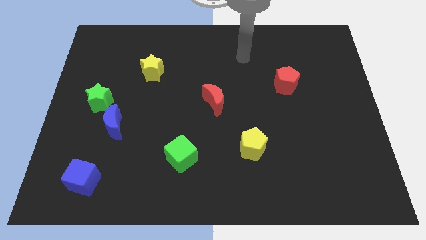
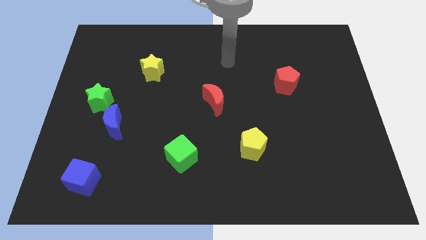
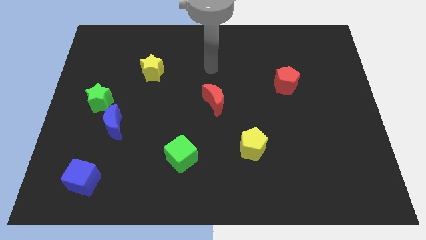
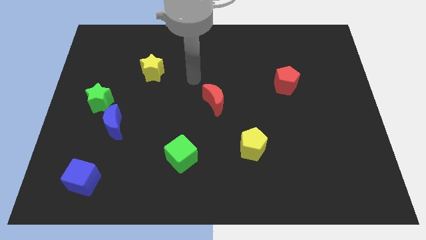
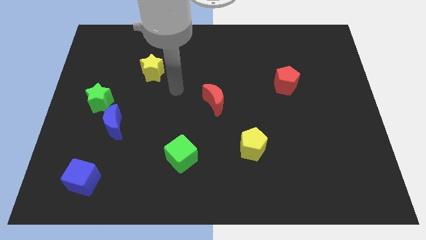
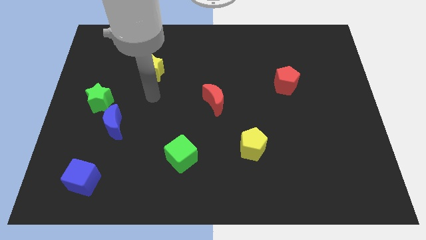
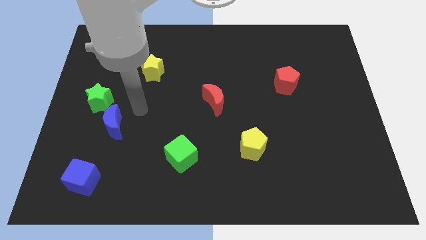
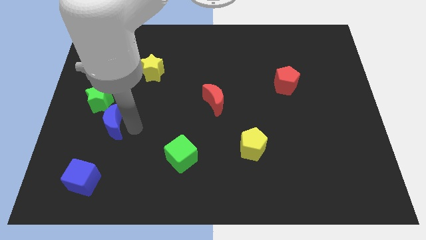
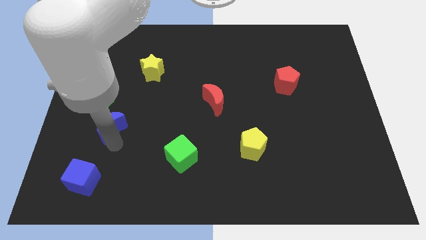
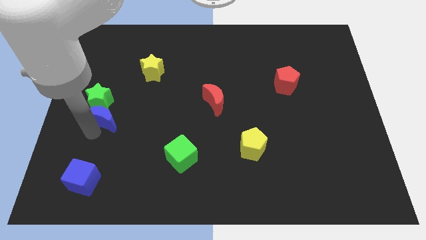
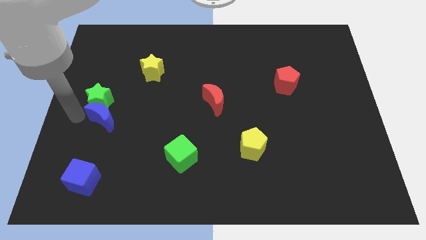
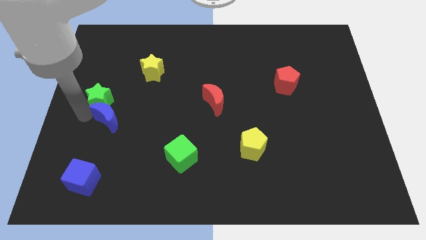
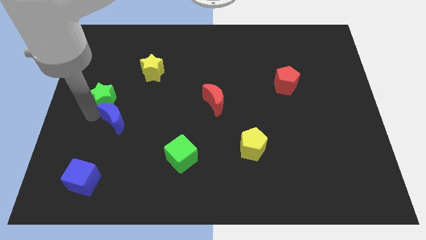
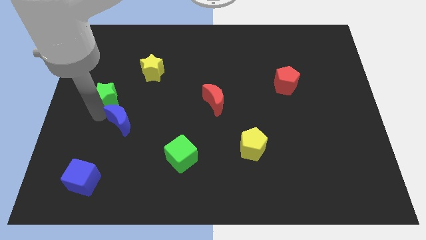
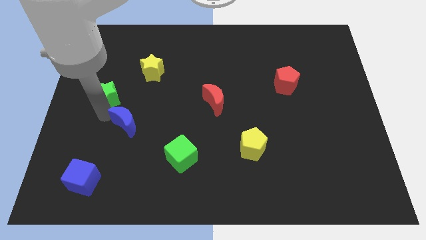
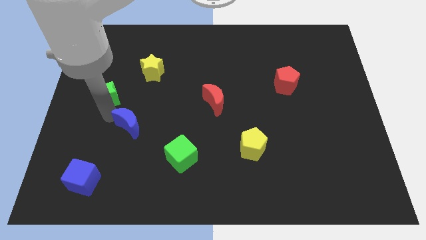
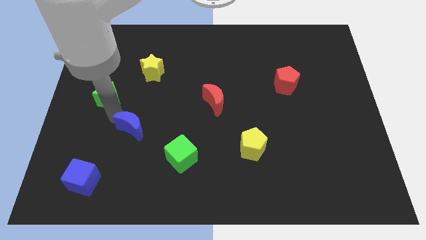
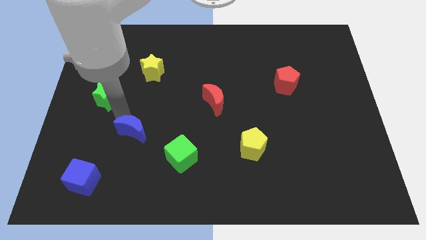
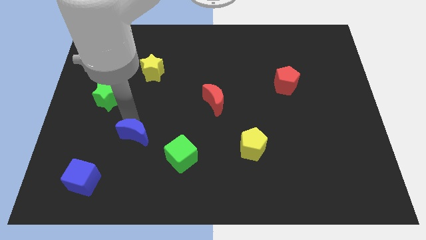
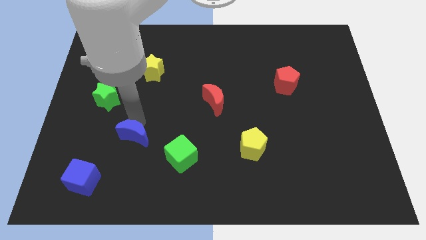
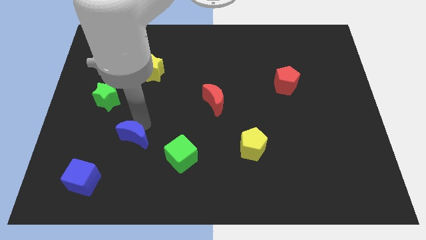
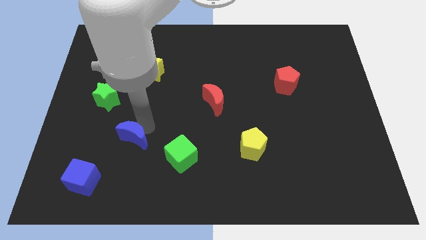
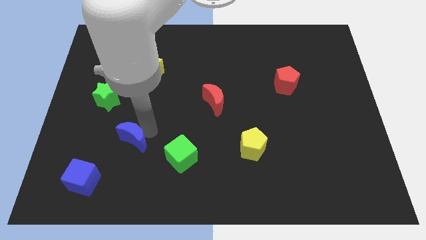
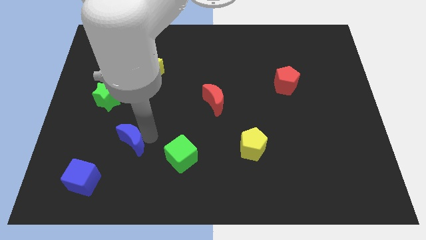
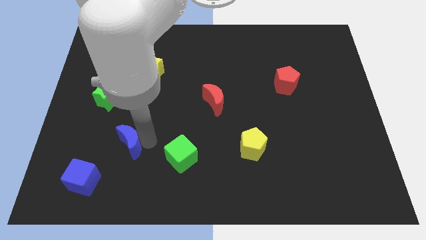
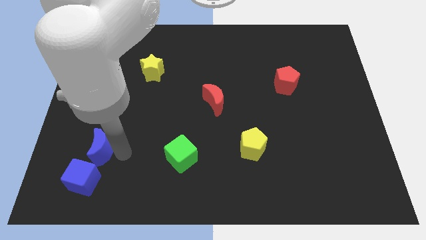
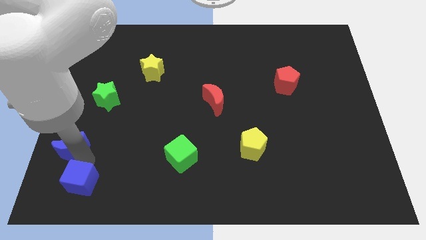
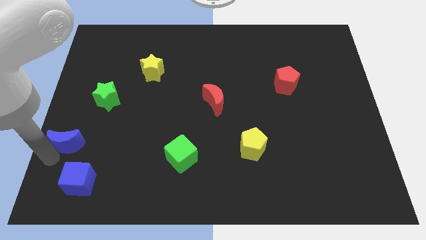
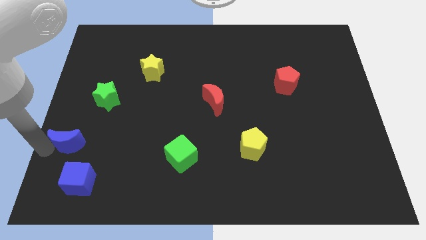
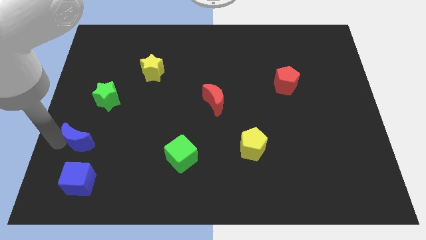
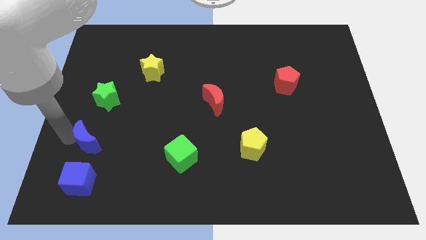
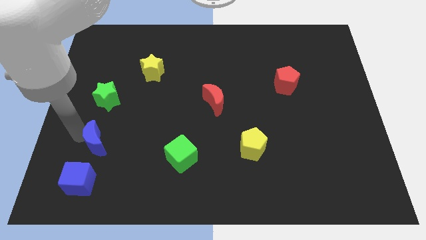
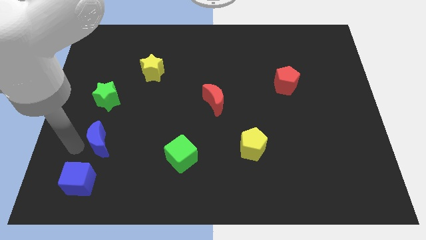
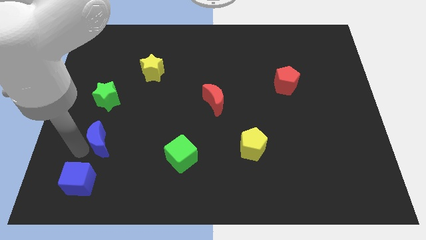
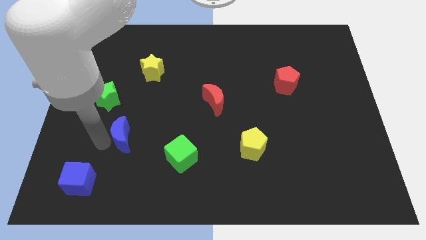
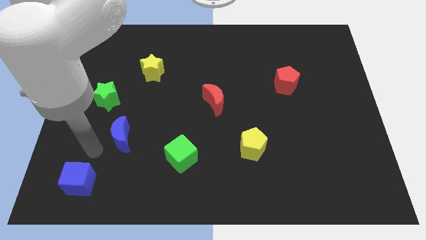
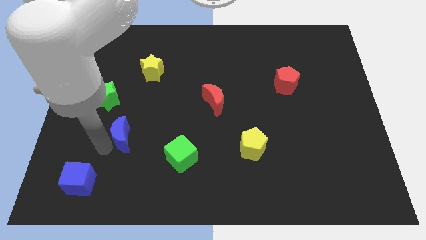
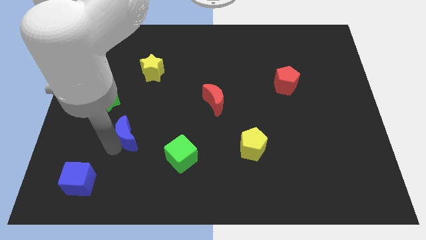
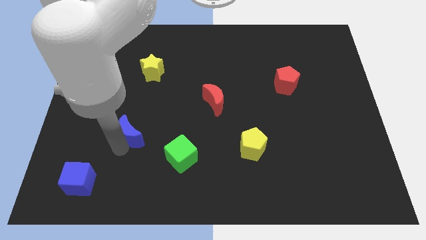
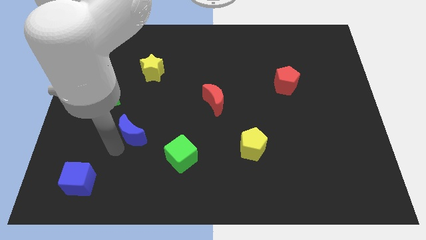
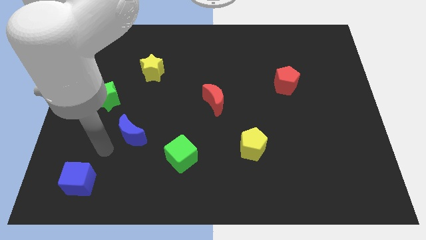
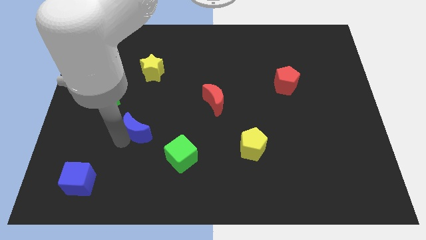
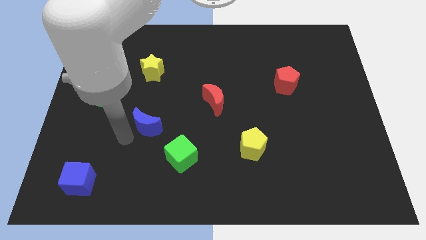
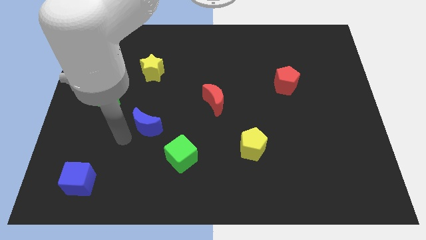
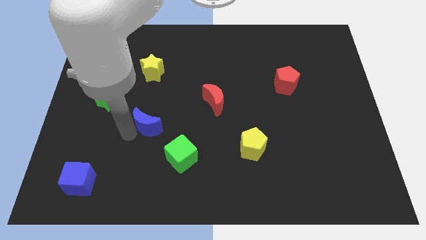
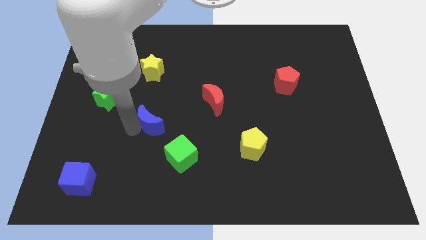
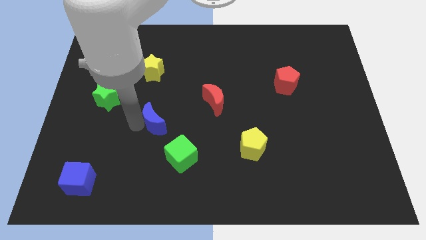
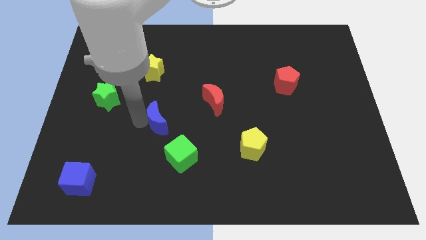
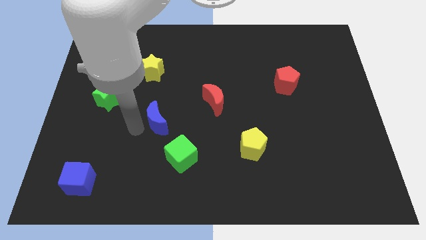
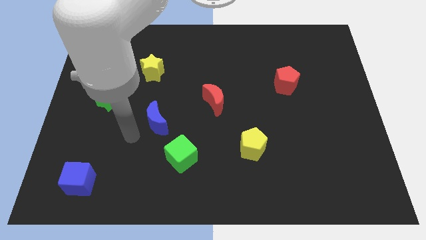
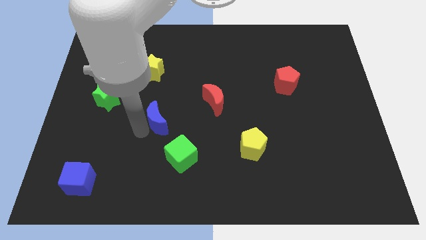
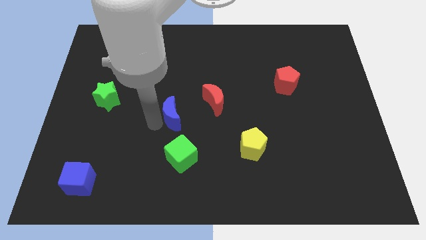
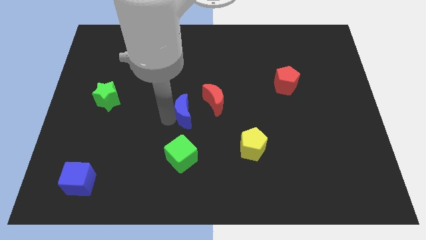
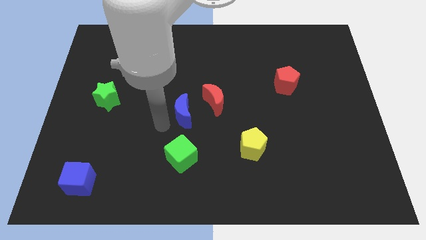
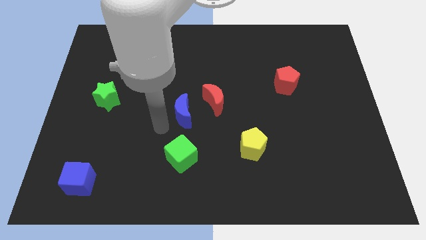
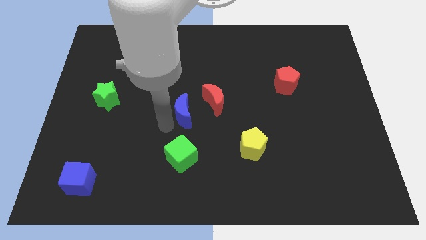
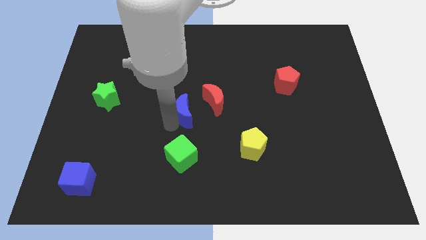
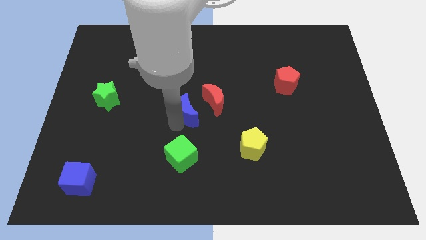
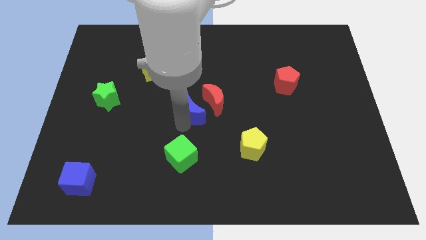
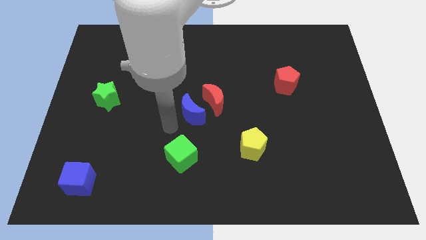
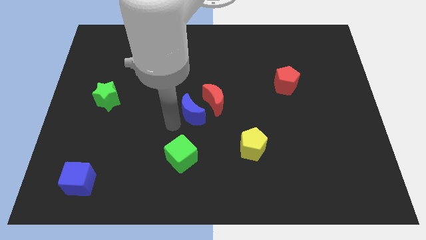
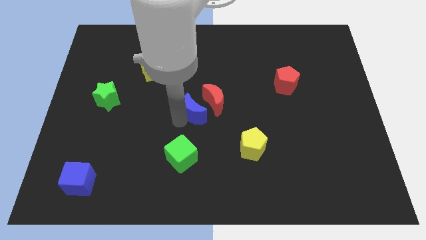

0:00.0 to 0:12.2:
slide the blue moon to the red moon

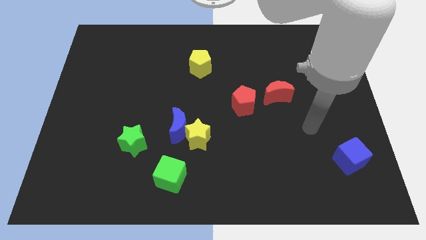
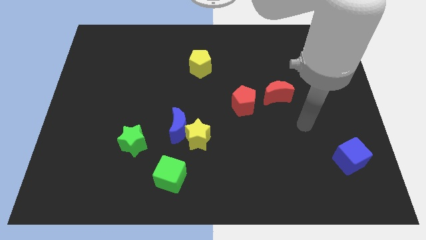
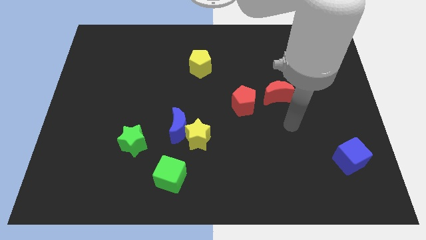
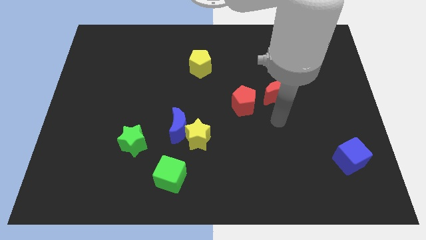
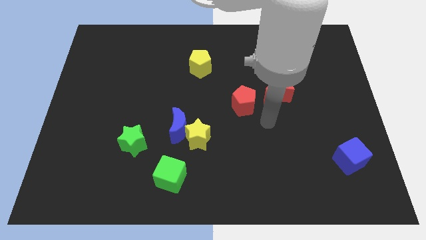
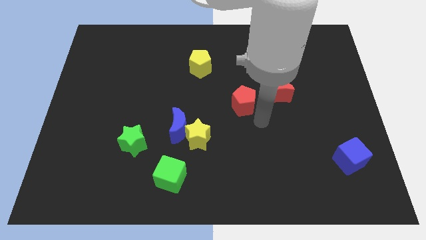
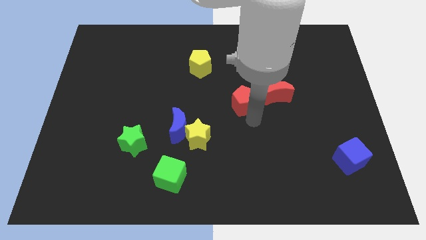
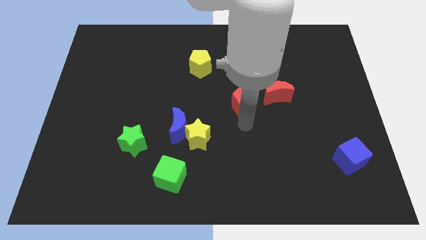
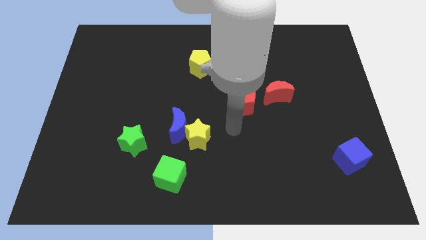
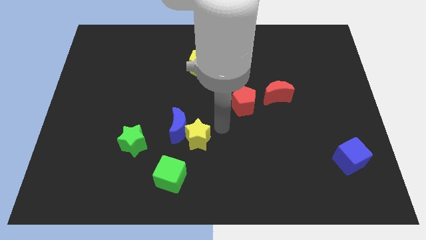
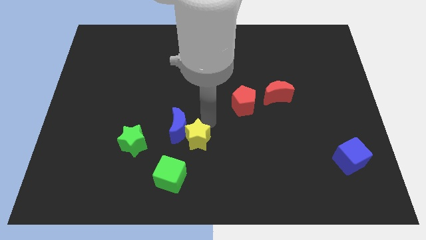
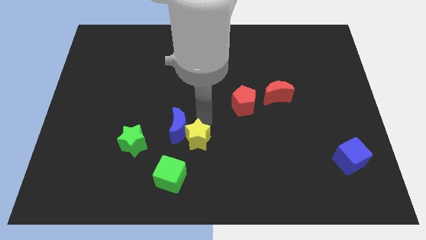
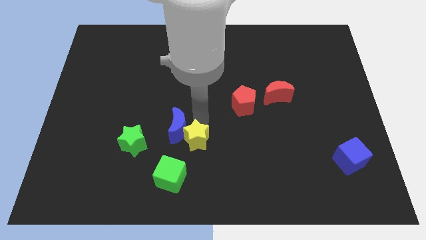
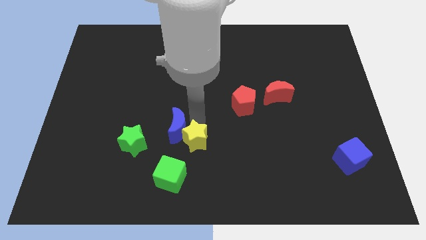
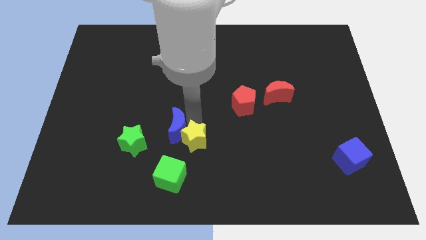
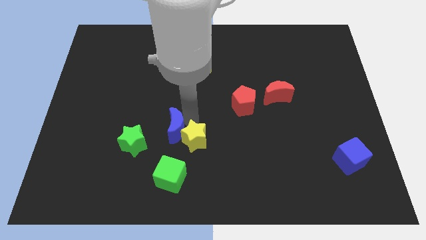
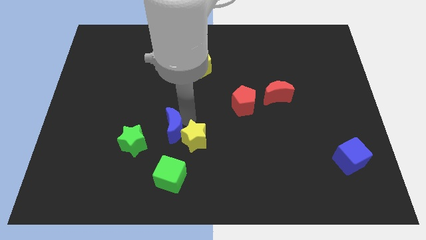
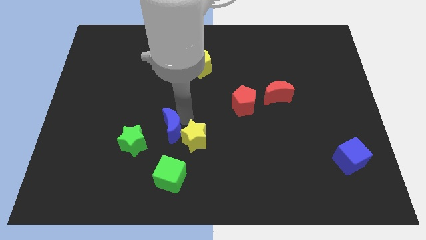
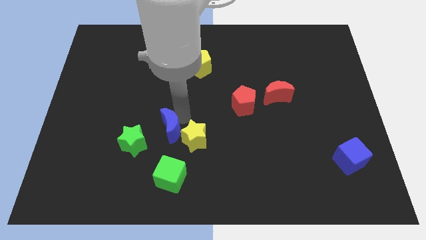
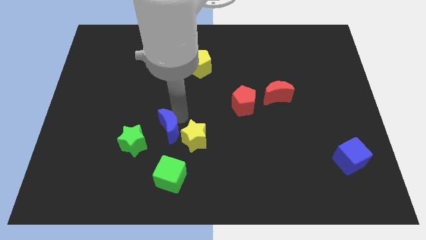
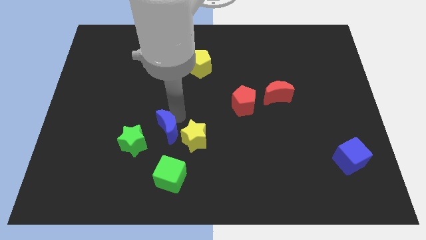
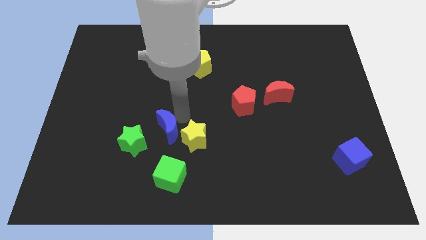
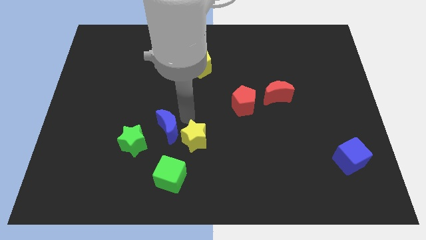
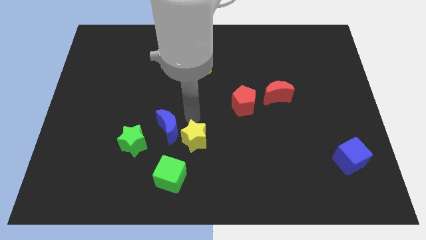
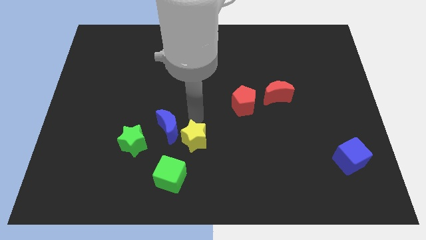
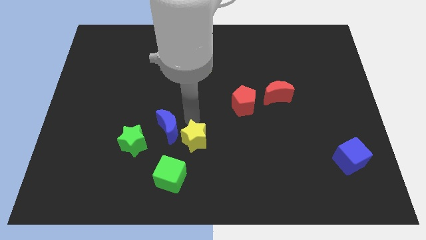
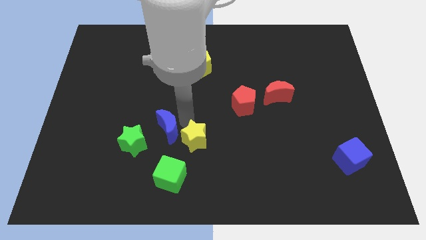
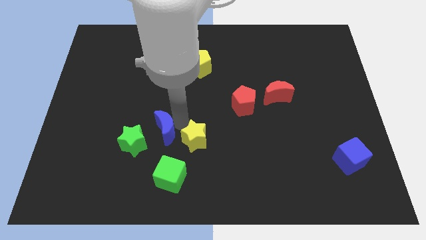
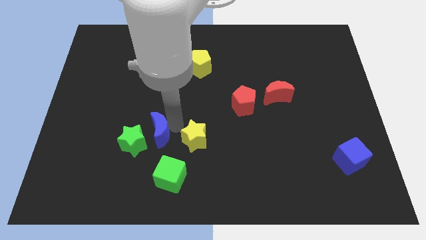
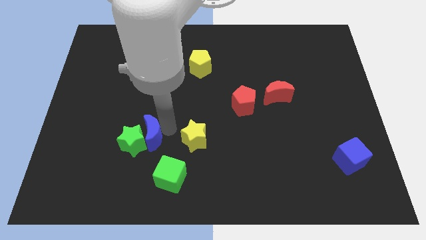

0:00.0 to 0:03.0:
push the blue moon to the green star
